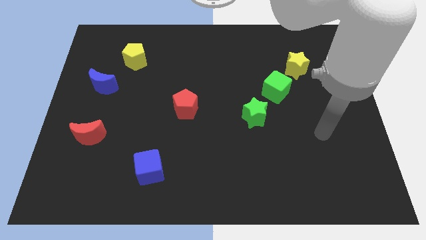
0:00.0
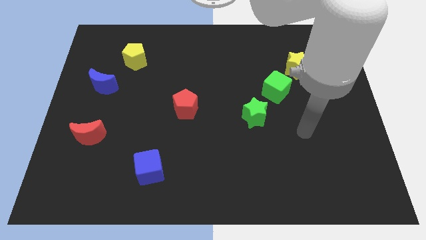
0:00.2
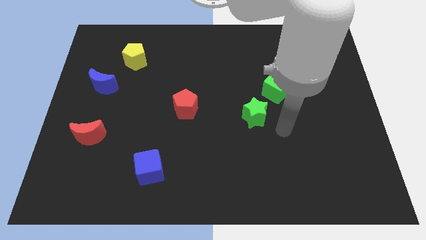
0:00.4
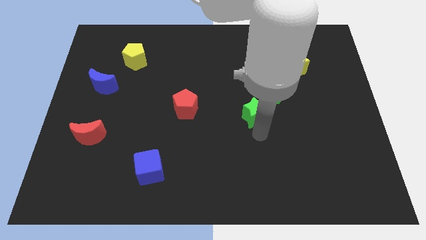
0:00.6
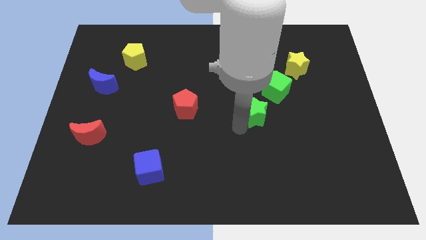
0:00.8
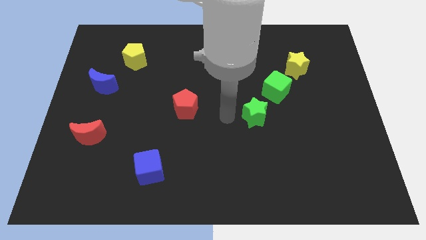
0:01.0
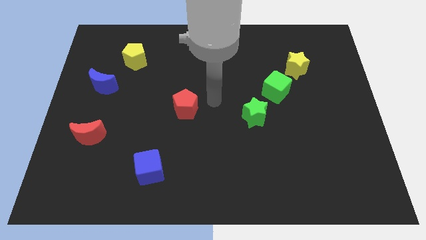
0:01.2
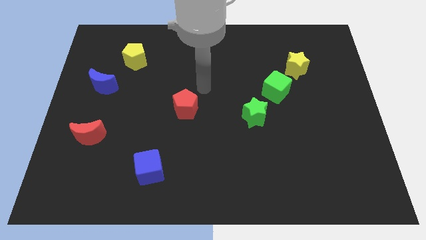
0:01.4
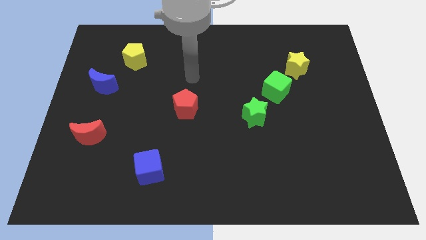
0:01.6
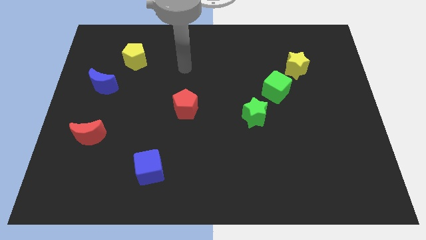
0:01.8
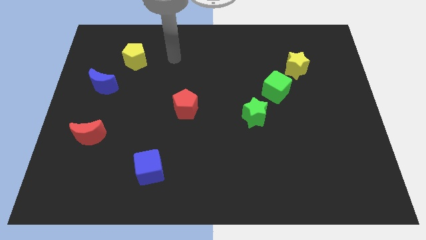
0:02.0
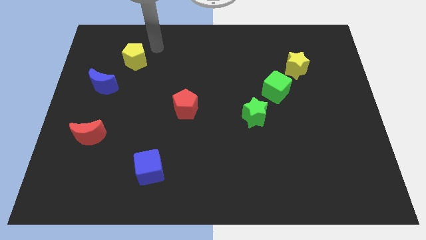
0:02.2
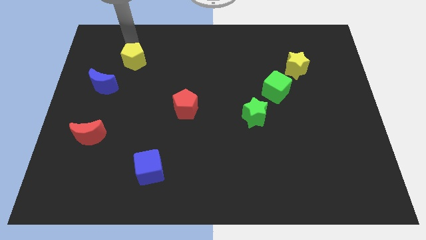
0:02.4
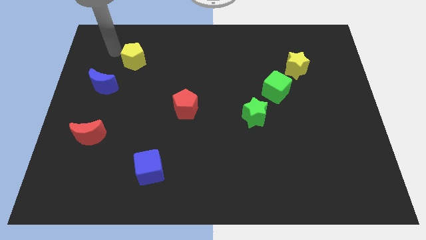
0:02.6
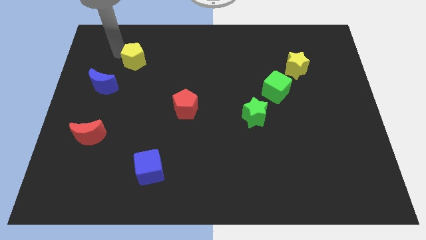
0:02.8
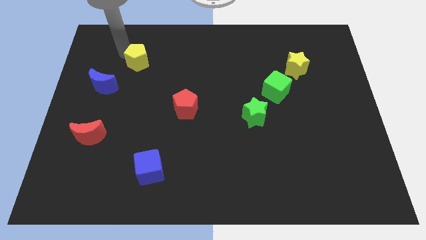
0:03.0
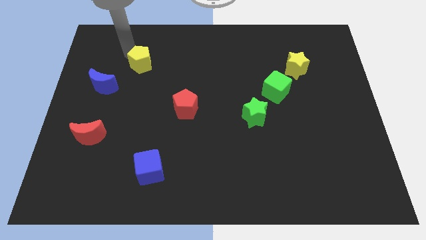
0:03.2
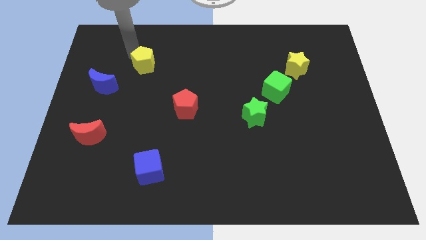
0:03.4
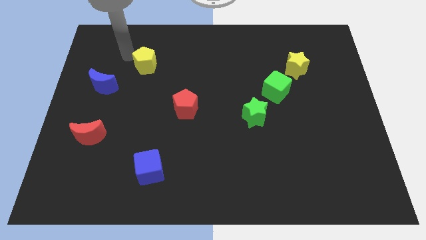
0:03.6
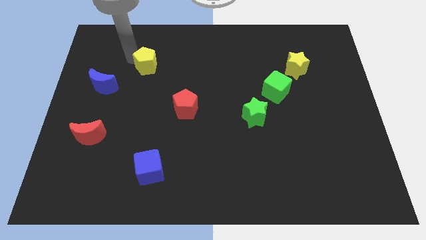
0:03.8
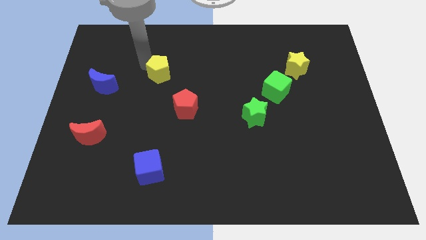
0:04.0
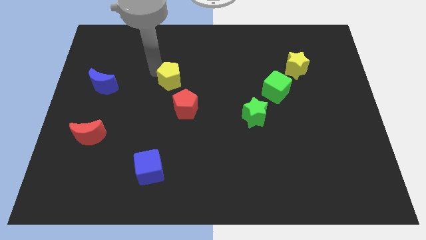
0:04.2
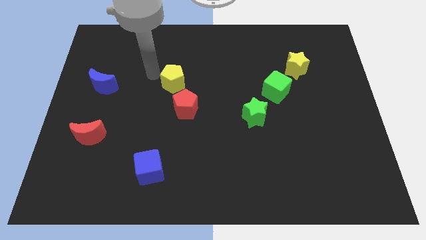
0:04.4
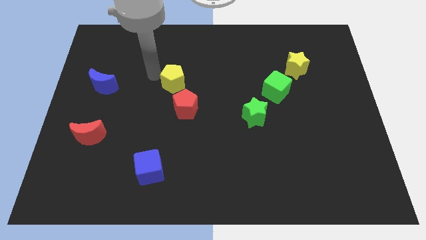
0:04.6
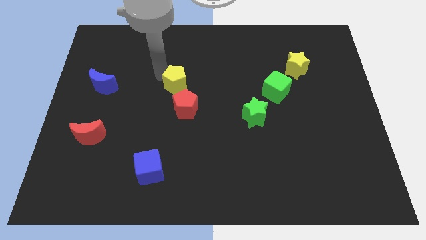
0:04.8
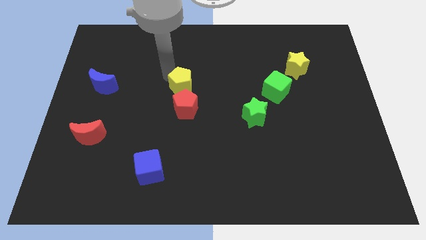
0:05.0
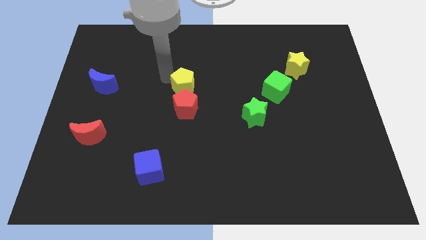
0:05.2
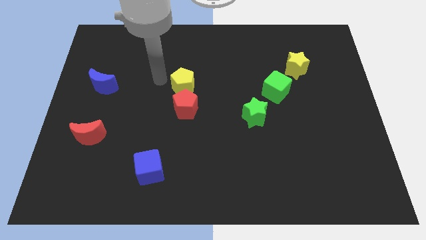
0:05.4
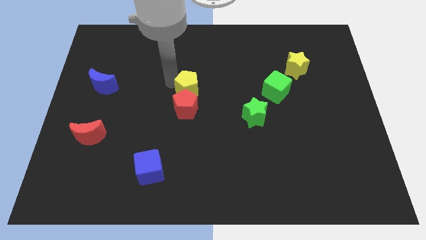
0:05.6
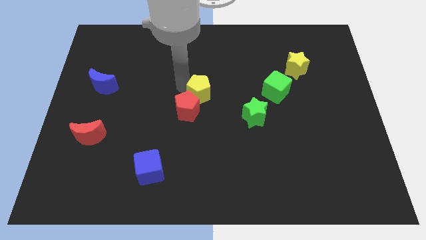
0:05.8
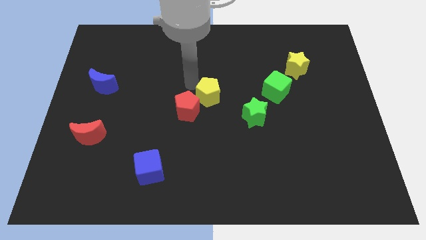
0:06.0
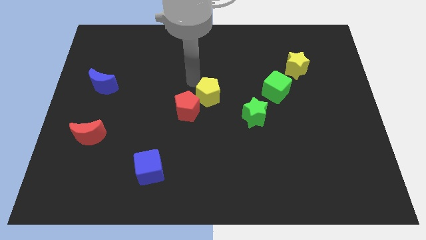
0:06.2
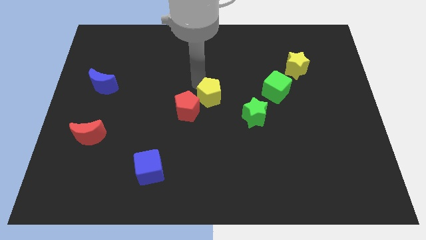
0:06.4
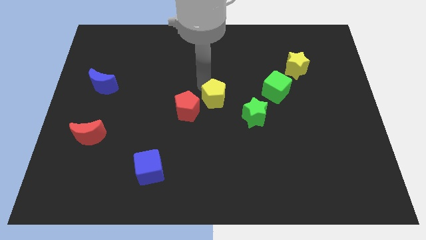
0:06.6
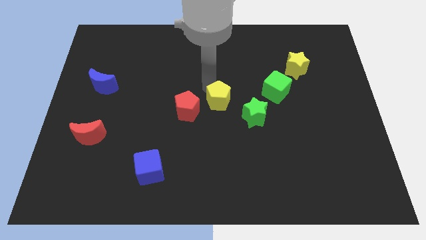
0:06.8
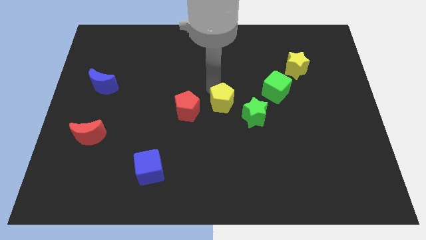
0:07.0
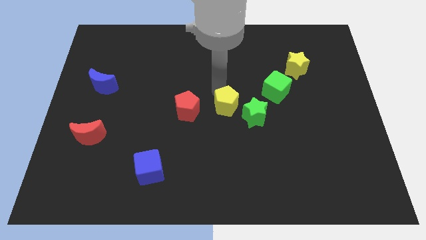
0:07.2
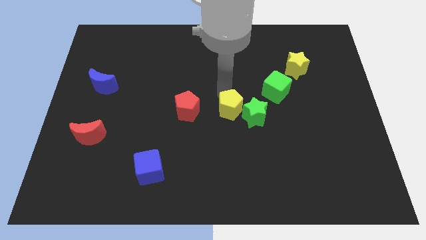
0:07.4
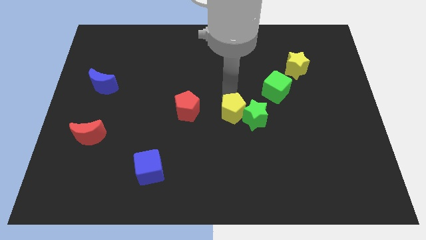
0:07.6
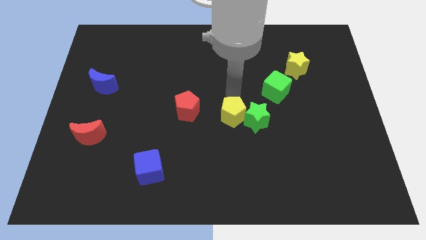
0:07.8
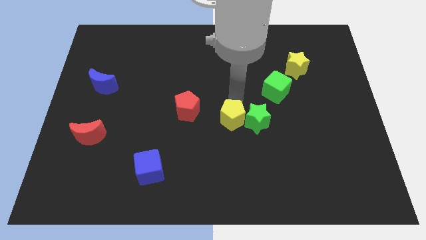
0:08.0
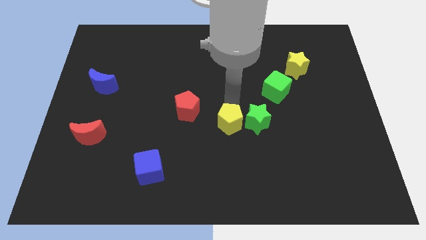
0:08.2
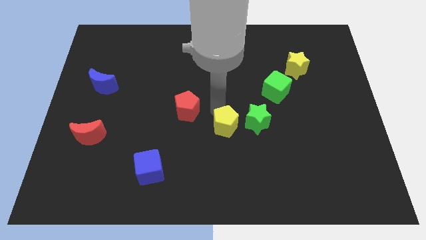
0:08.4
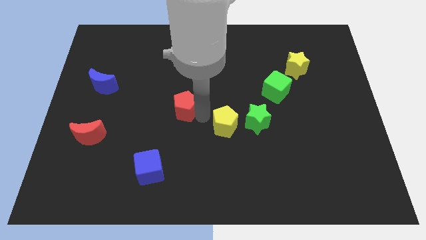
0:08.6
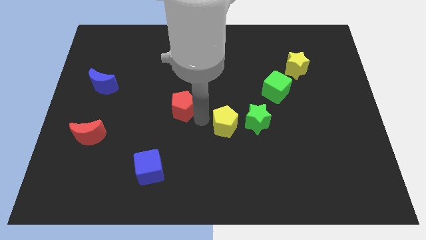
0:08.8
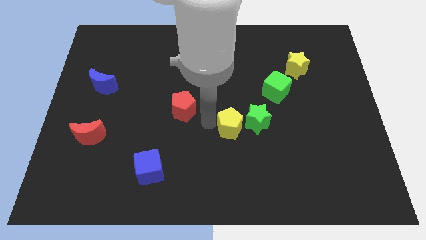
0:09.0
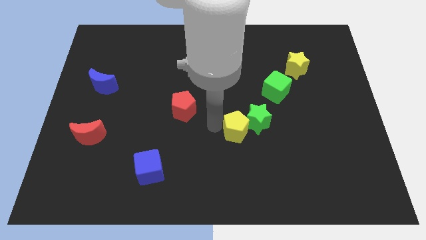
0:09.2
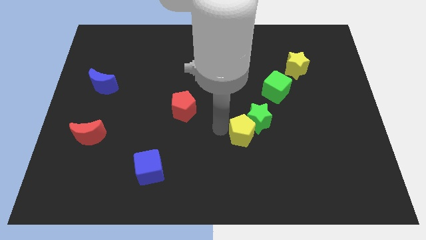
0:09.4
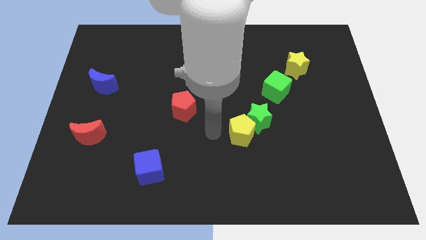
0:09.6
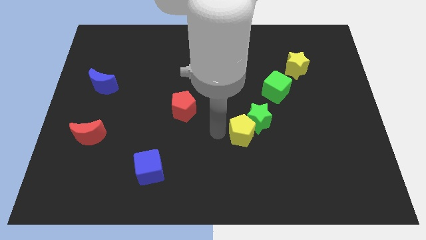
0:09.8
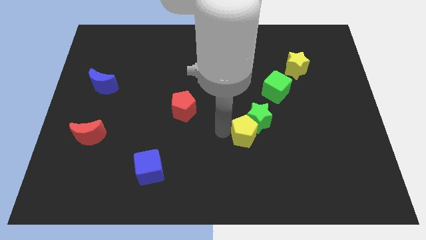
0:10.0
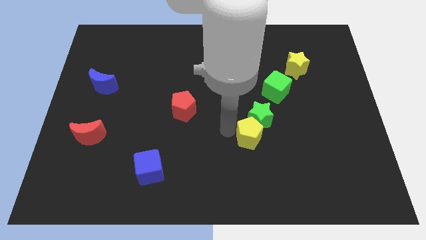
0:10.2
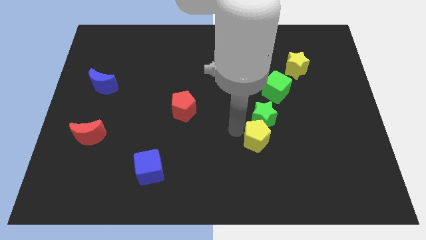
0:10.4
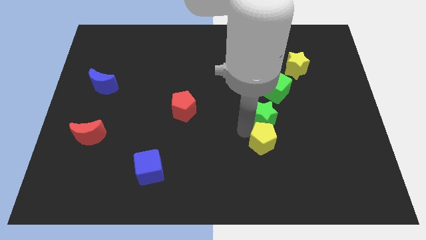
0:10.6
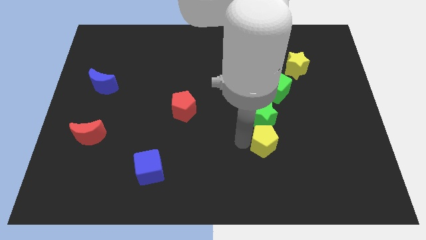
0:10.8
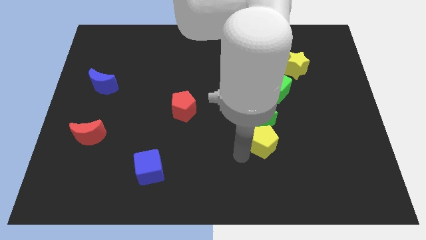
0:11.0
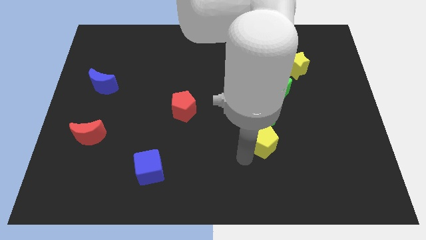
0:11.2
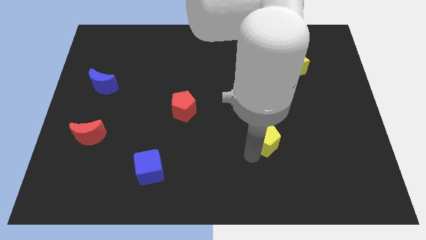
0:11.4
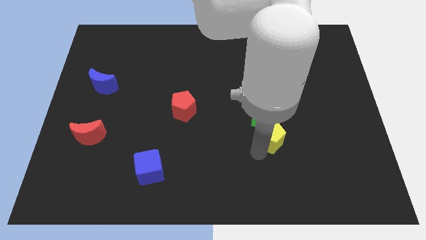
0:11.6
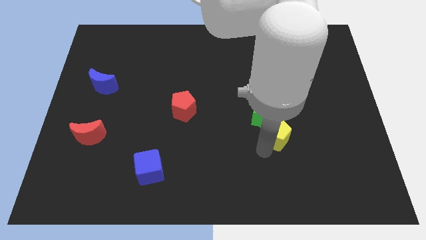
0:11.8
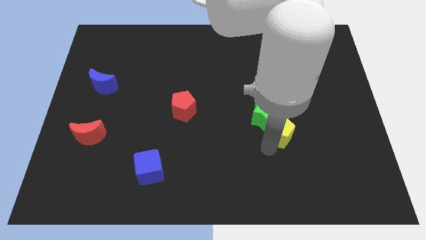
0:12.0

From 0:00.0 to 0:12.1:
put the yellow pentagon to the right side of the green star
